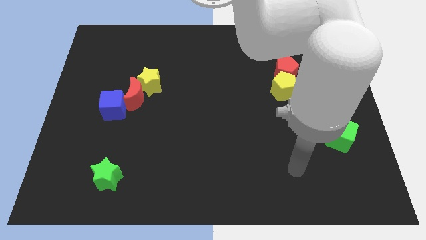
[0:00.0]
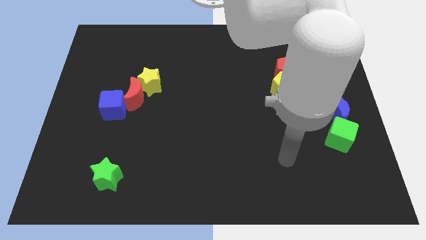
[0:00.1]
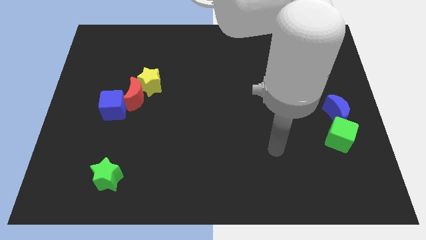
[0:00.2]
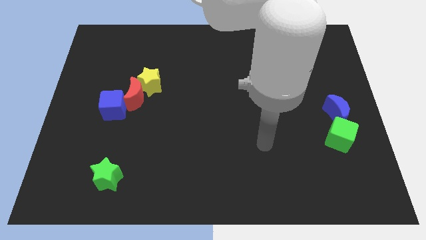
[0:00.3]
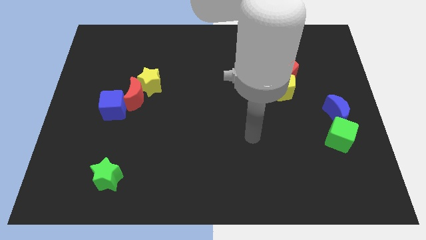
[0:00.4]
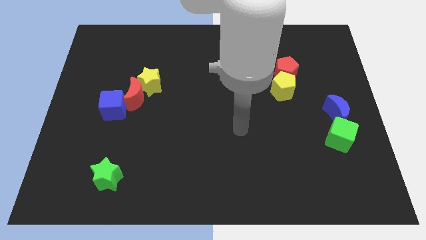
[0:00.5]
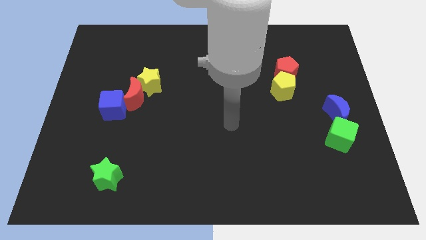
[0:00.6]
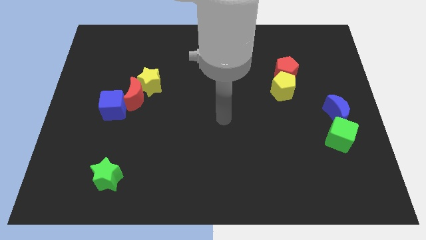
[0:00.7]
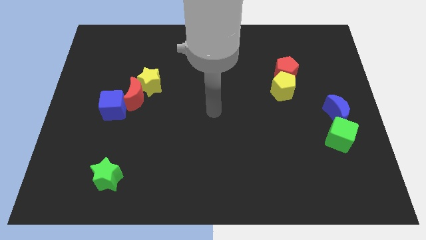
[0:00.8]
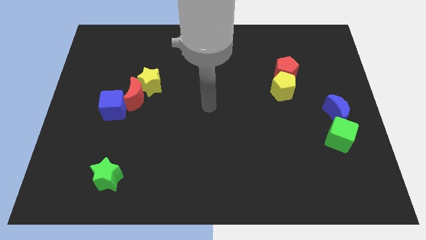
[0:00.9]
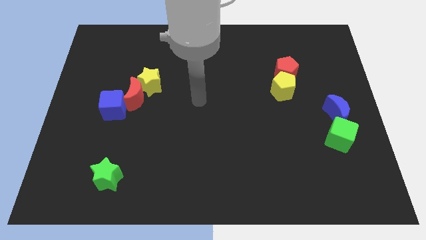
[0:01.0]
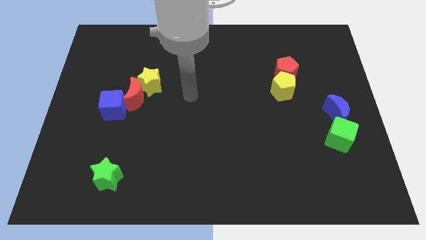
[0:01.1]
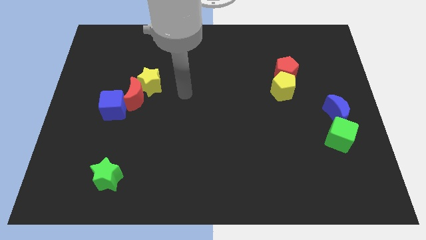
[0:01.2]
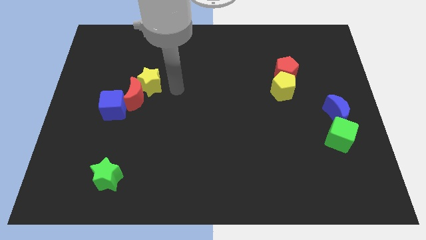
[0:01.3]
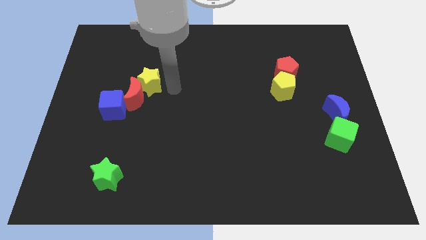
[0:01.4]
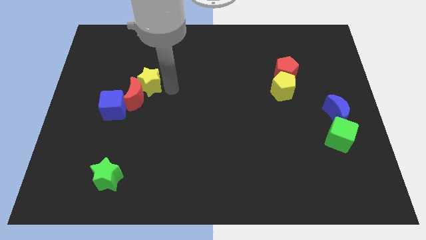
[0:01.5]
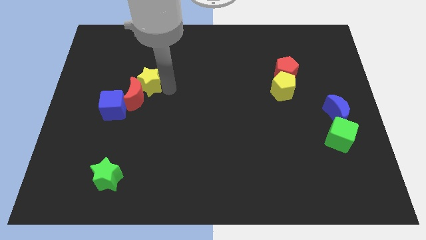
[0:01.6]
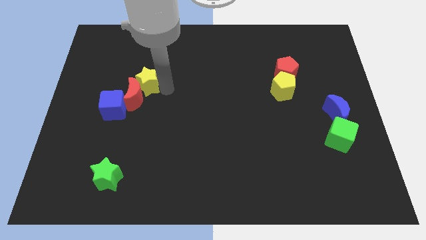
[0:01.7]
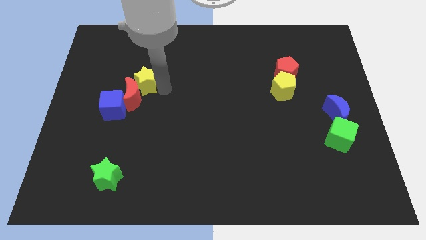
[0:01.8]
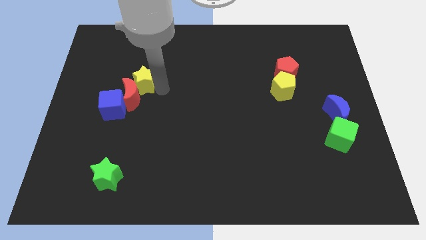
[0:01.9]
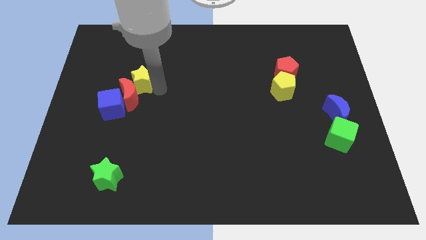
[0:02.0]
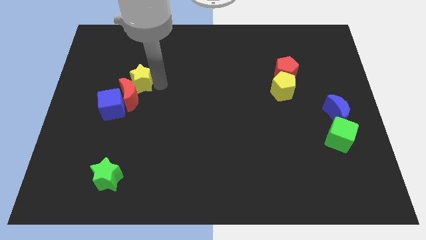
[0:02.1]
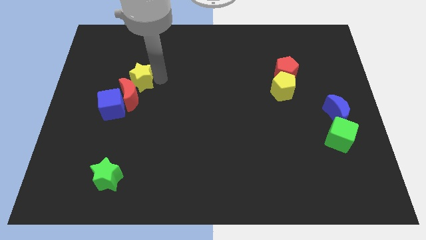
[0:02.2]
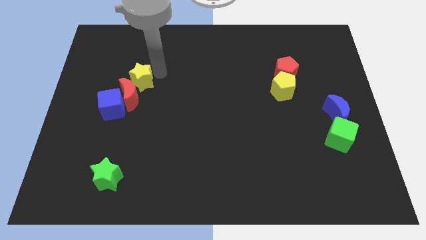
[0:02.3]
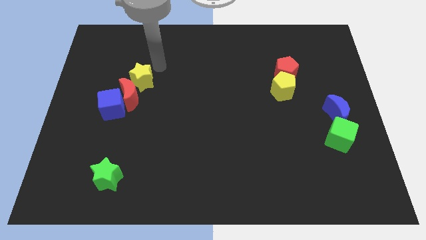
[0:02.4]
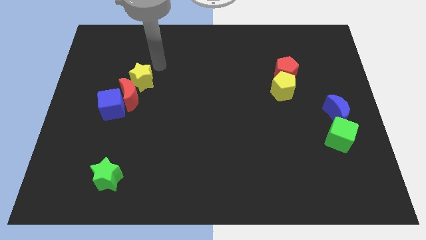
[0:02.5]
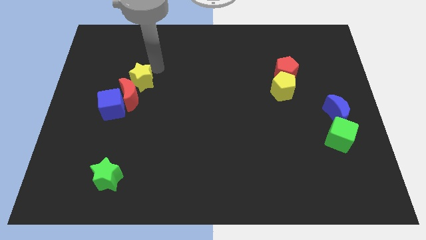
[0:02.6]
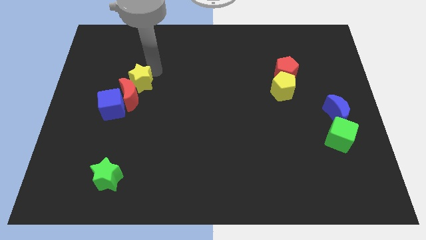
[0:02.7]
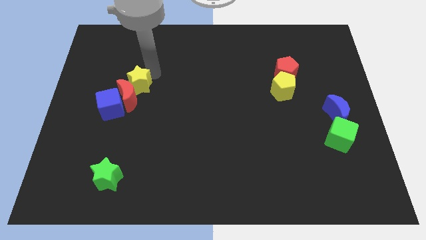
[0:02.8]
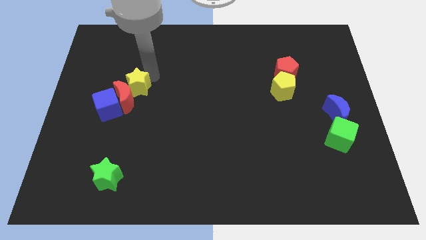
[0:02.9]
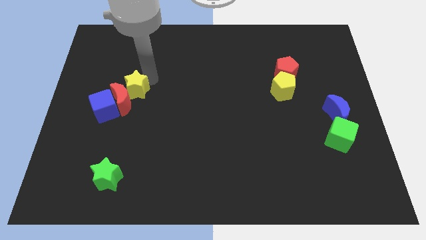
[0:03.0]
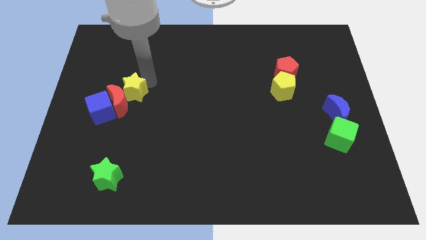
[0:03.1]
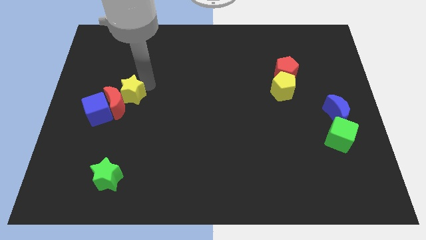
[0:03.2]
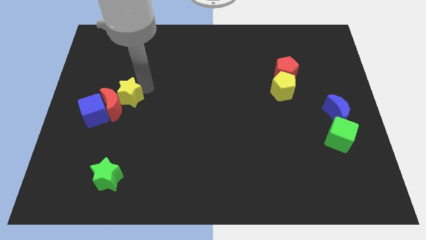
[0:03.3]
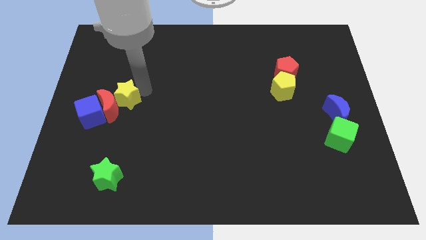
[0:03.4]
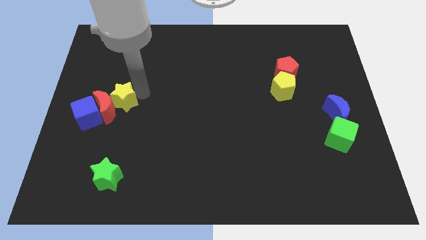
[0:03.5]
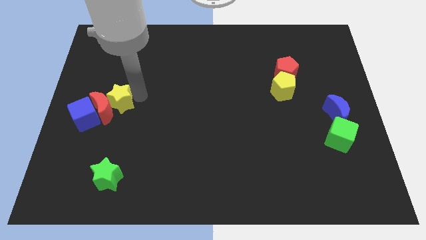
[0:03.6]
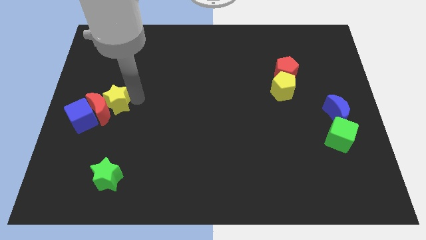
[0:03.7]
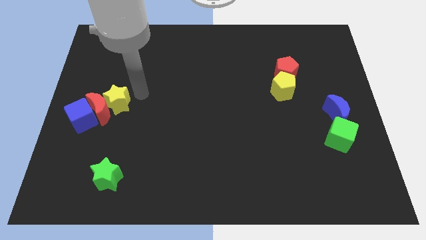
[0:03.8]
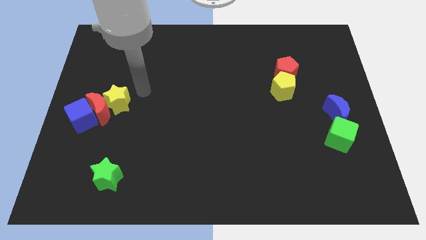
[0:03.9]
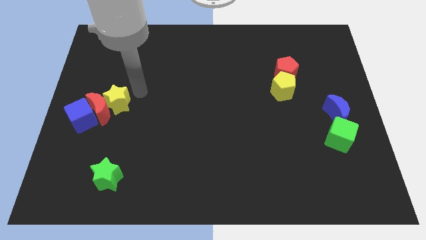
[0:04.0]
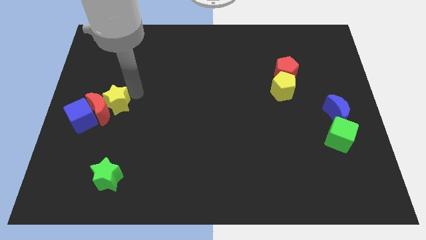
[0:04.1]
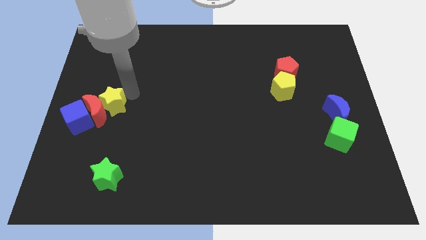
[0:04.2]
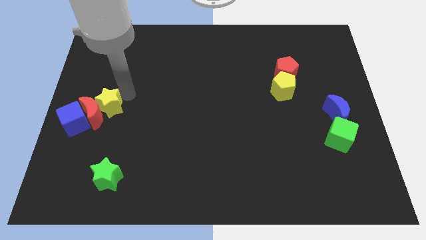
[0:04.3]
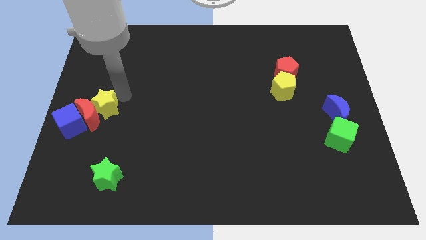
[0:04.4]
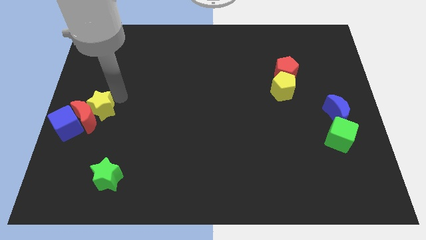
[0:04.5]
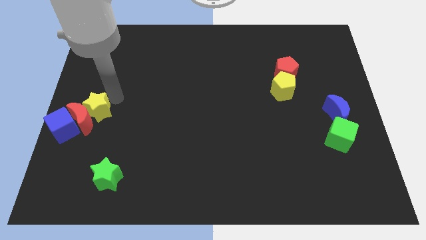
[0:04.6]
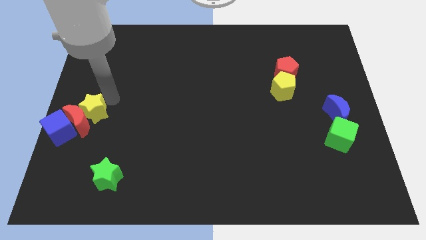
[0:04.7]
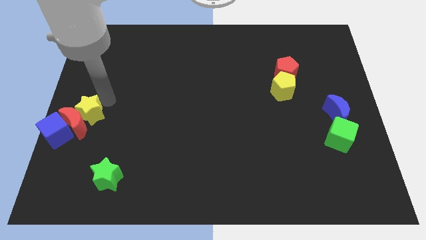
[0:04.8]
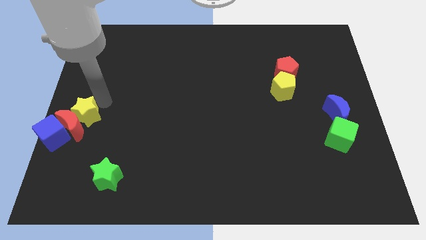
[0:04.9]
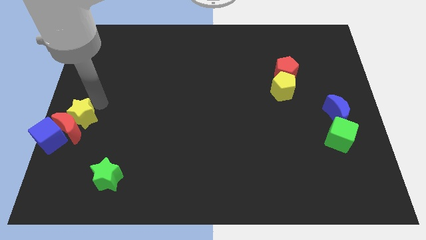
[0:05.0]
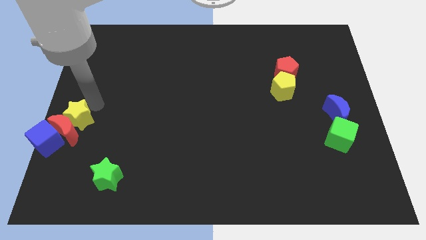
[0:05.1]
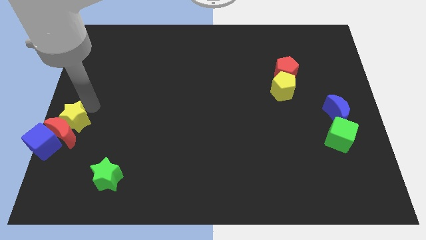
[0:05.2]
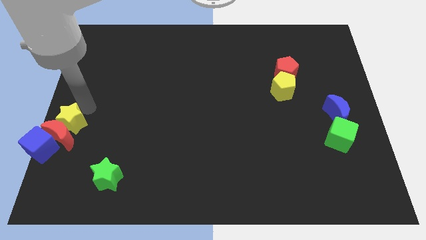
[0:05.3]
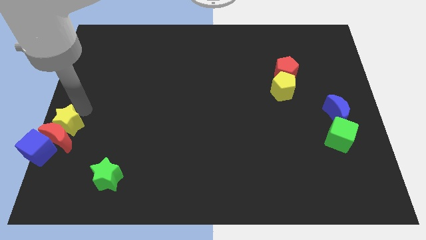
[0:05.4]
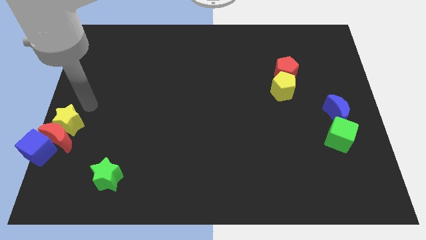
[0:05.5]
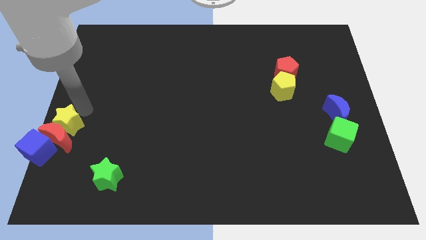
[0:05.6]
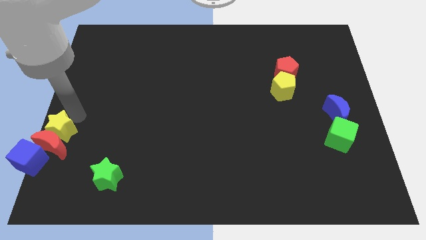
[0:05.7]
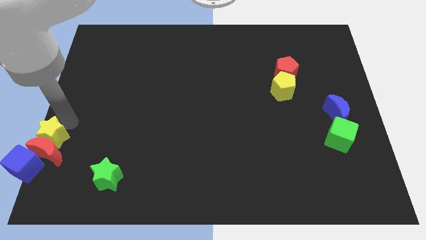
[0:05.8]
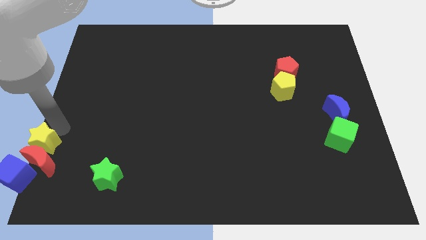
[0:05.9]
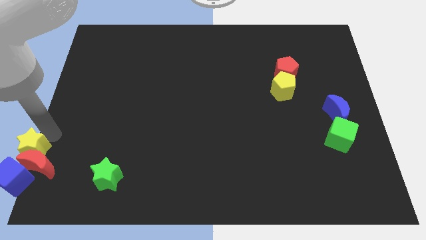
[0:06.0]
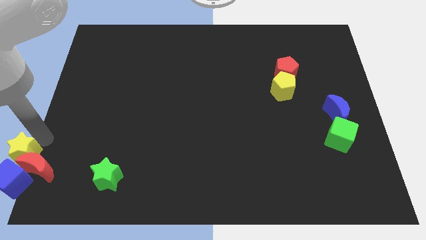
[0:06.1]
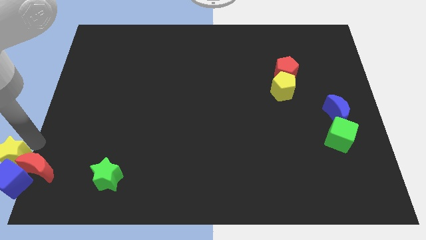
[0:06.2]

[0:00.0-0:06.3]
move the yellow star next to the blue cube

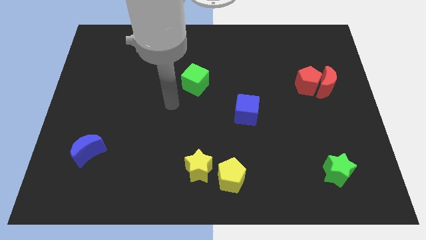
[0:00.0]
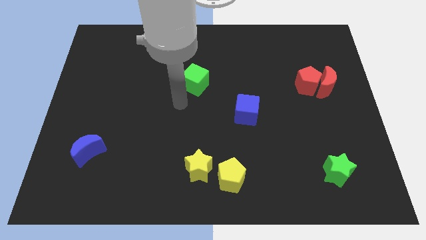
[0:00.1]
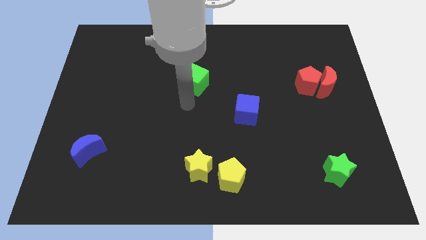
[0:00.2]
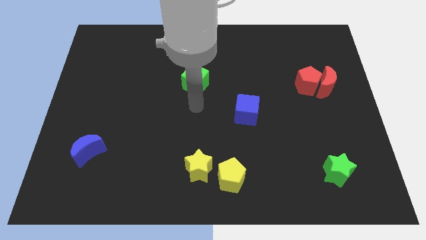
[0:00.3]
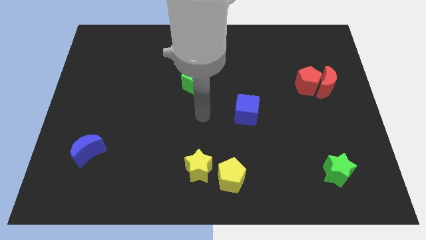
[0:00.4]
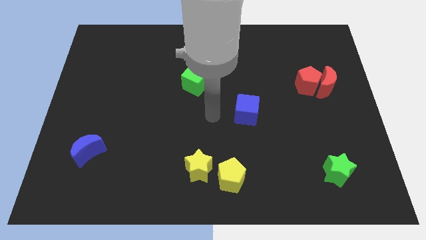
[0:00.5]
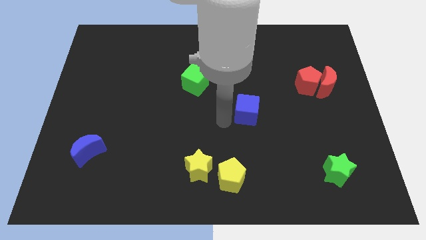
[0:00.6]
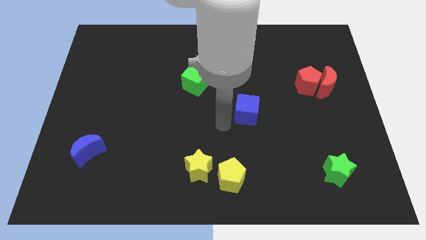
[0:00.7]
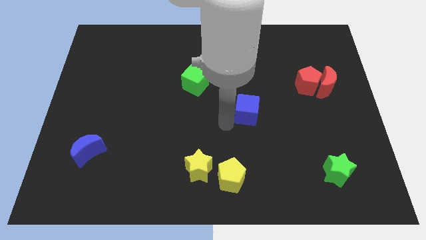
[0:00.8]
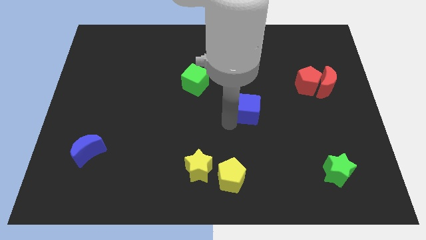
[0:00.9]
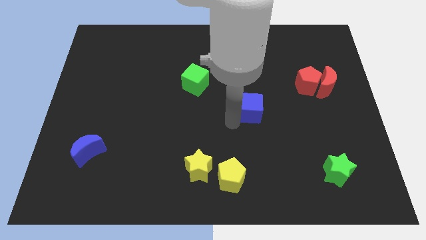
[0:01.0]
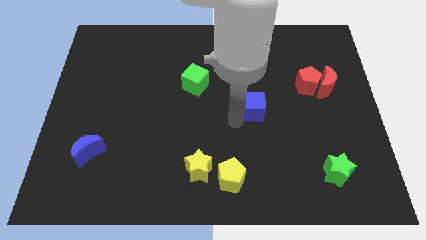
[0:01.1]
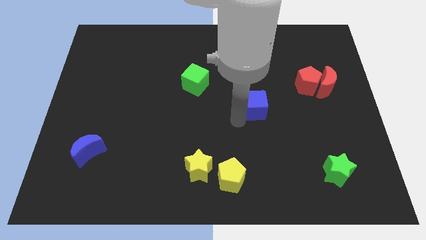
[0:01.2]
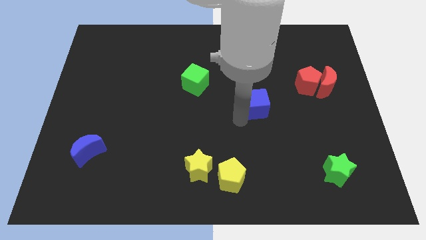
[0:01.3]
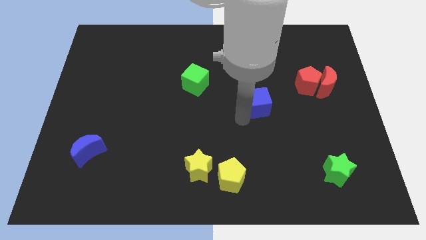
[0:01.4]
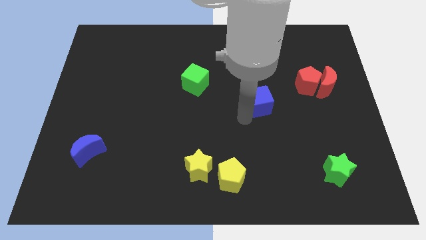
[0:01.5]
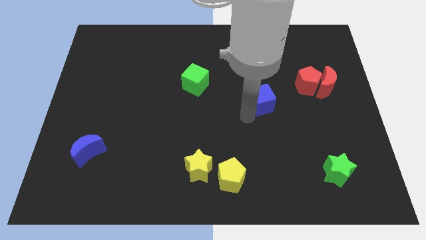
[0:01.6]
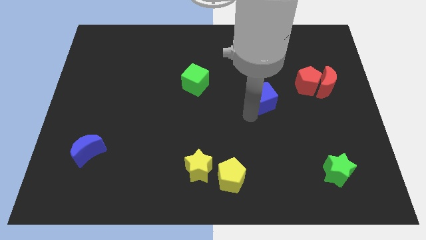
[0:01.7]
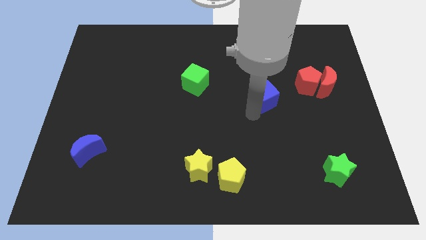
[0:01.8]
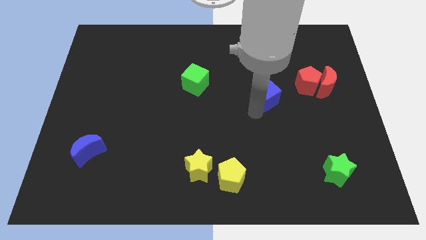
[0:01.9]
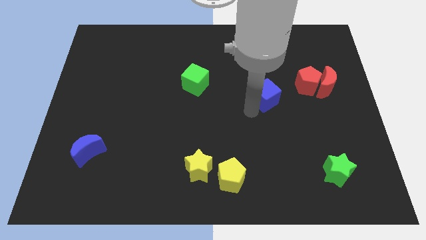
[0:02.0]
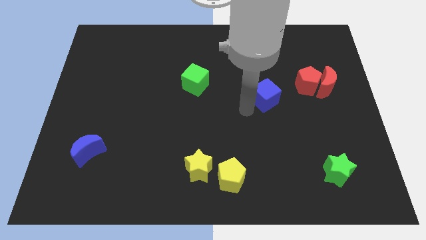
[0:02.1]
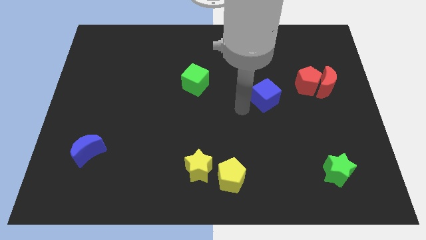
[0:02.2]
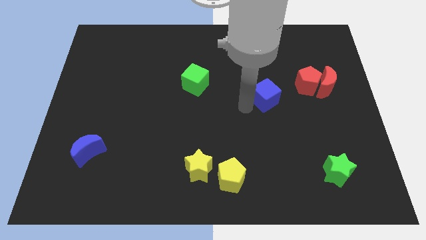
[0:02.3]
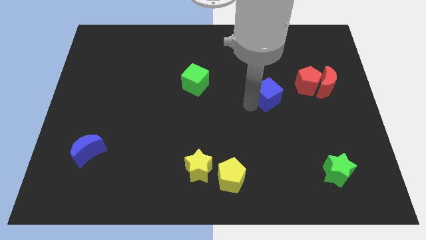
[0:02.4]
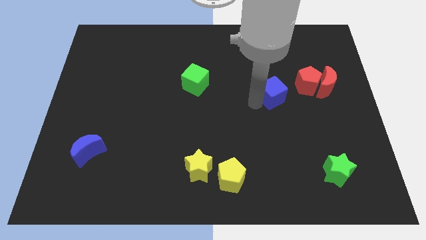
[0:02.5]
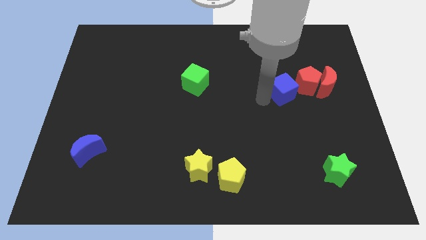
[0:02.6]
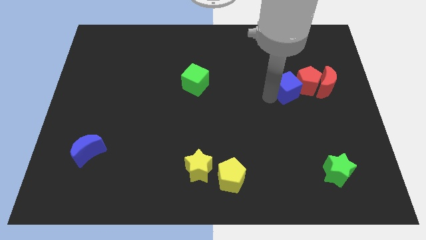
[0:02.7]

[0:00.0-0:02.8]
slide the blue cube close to the red pentagon
